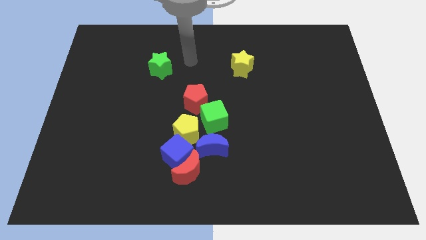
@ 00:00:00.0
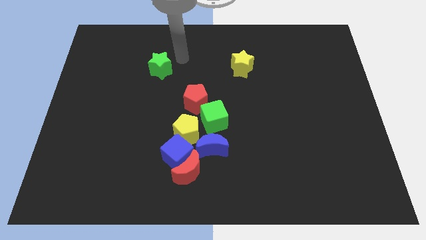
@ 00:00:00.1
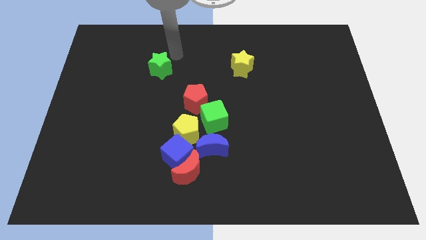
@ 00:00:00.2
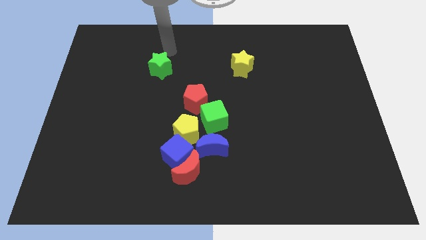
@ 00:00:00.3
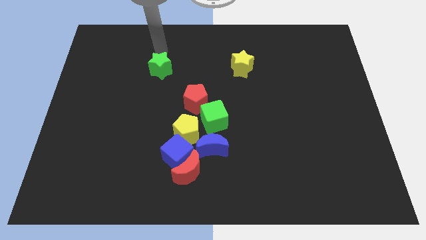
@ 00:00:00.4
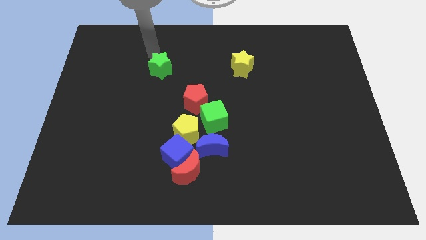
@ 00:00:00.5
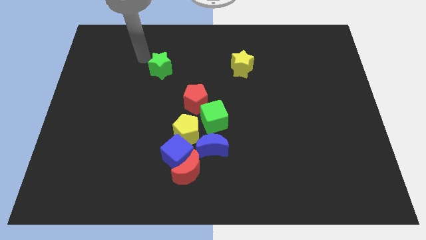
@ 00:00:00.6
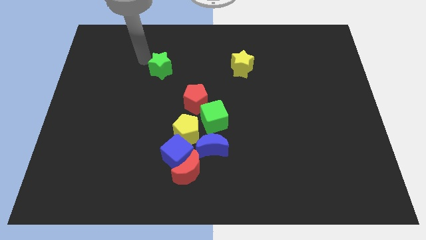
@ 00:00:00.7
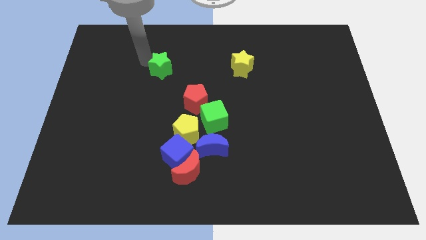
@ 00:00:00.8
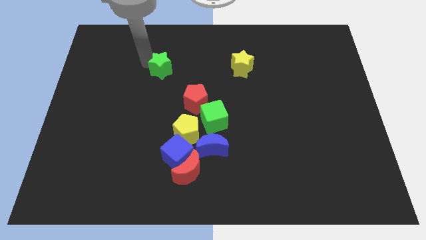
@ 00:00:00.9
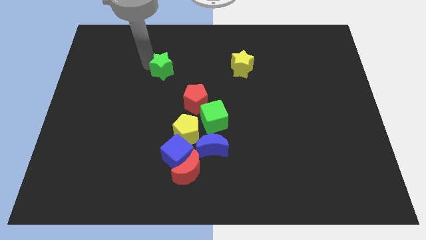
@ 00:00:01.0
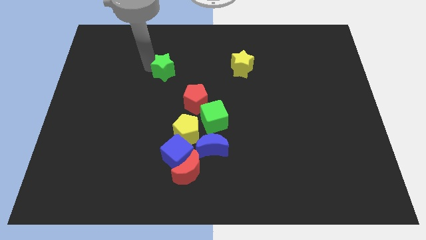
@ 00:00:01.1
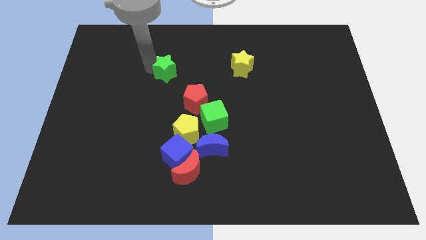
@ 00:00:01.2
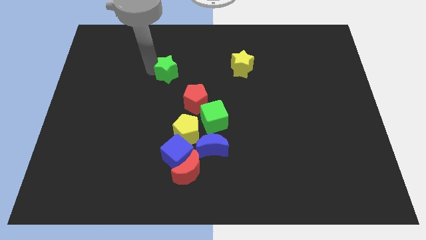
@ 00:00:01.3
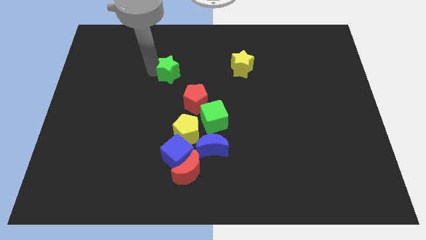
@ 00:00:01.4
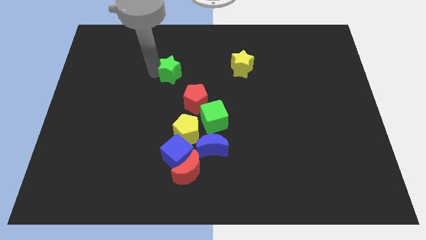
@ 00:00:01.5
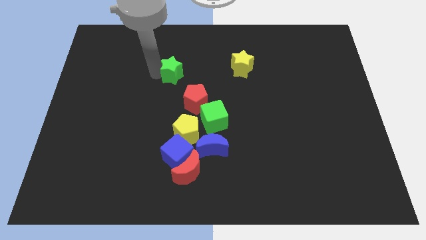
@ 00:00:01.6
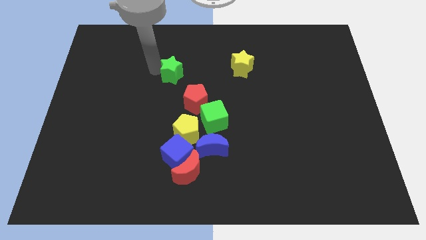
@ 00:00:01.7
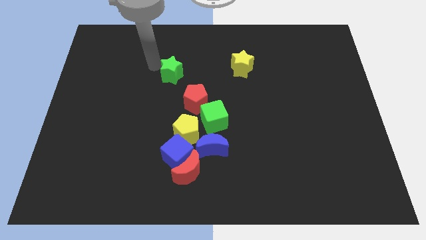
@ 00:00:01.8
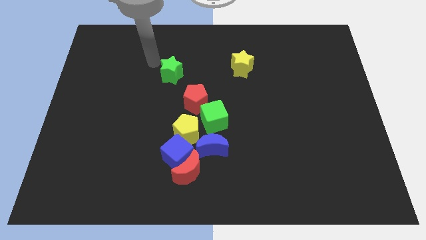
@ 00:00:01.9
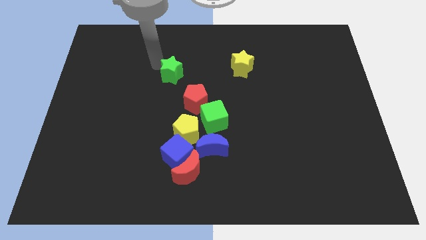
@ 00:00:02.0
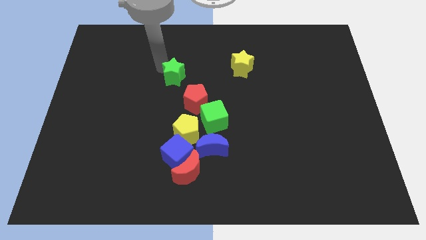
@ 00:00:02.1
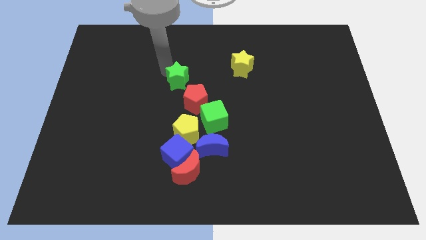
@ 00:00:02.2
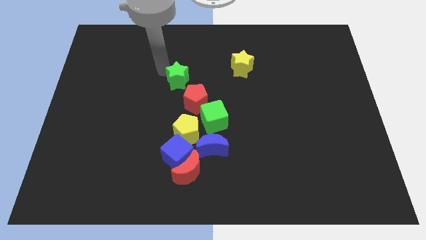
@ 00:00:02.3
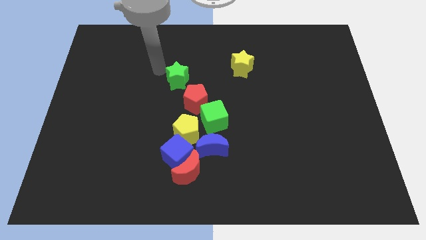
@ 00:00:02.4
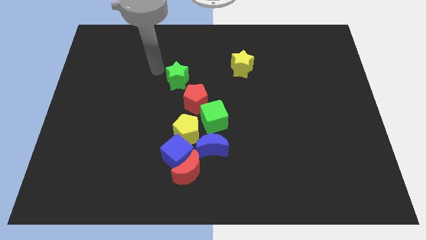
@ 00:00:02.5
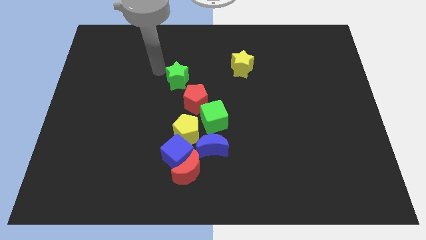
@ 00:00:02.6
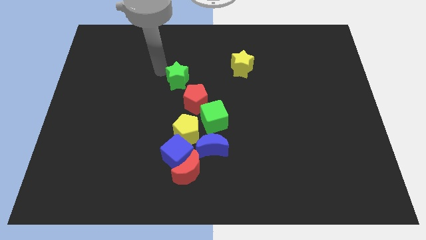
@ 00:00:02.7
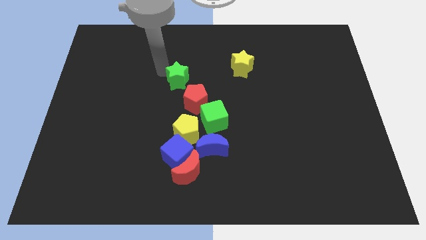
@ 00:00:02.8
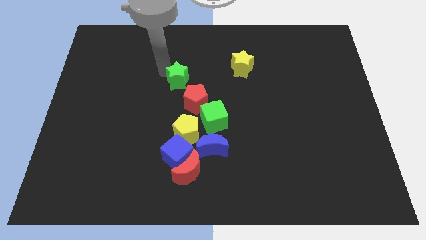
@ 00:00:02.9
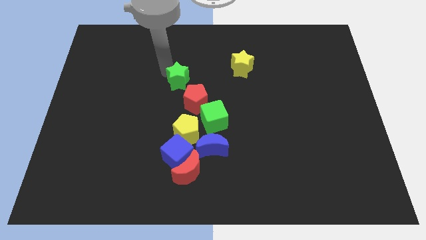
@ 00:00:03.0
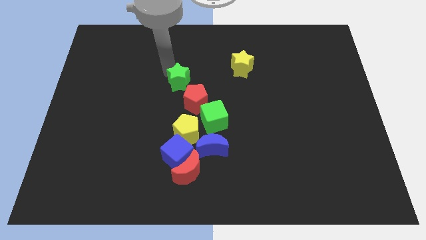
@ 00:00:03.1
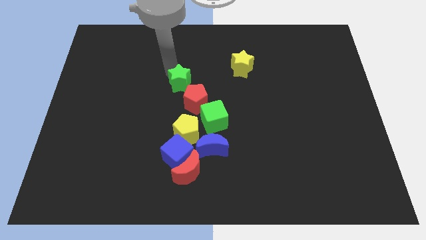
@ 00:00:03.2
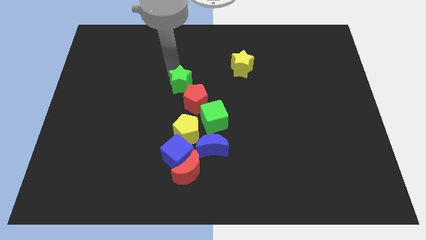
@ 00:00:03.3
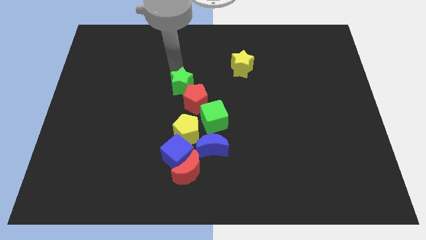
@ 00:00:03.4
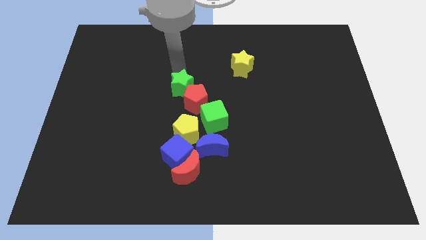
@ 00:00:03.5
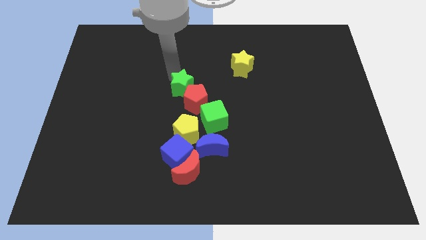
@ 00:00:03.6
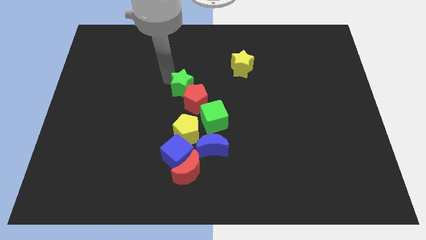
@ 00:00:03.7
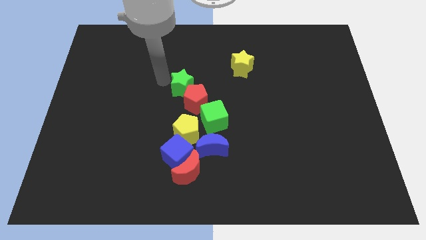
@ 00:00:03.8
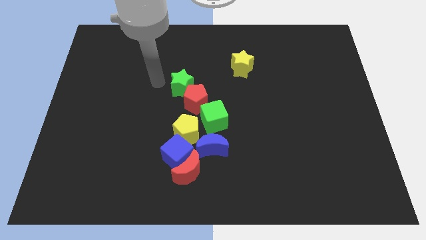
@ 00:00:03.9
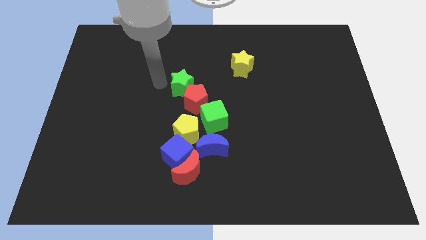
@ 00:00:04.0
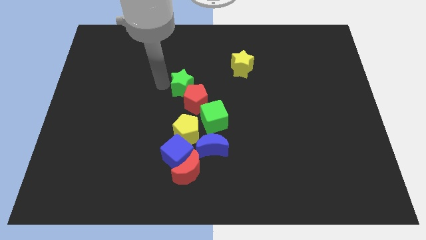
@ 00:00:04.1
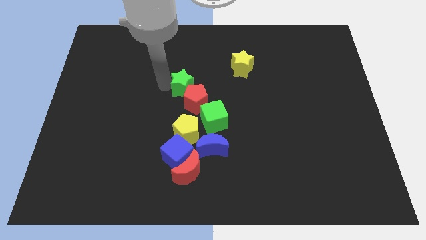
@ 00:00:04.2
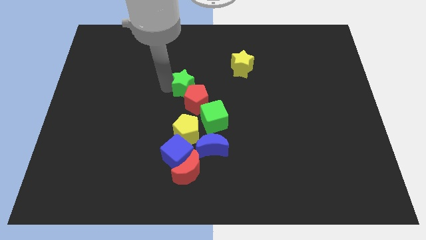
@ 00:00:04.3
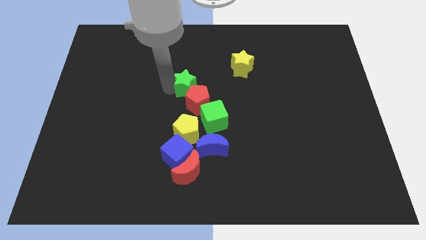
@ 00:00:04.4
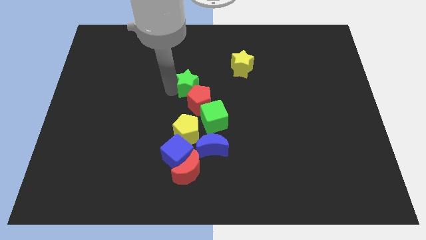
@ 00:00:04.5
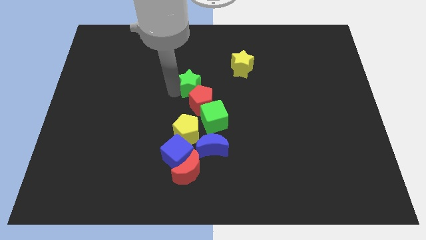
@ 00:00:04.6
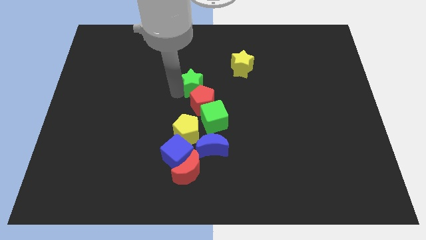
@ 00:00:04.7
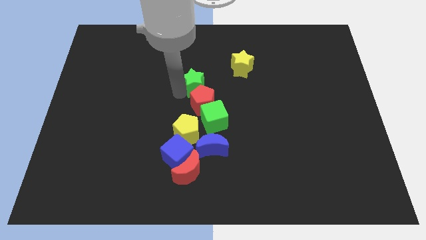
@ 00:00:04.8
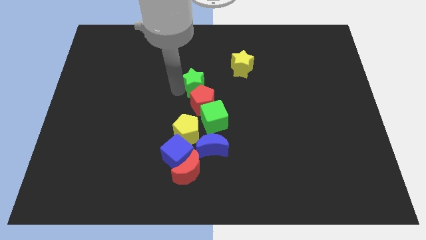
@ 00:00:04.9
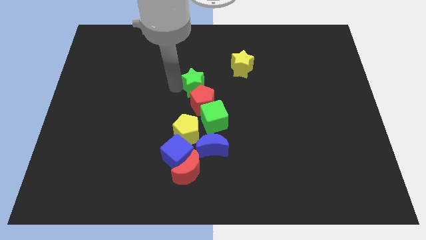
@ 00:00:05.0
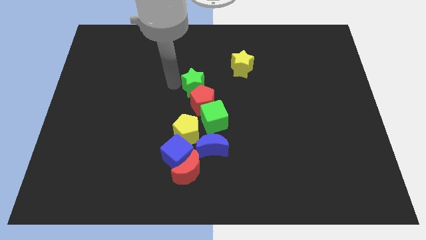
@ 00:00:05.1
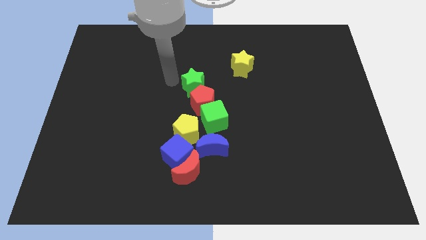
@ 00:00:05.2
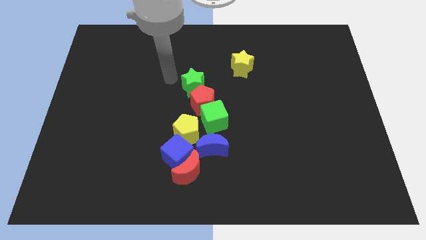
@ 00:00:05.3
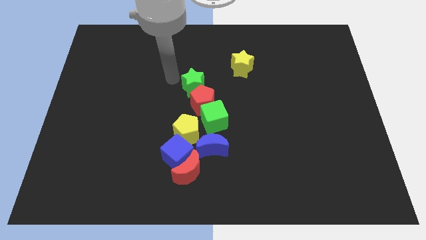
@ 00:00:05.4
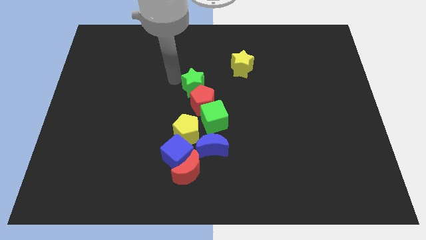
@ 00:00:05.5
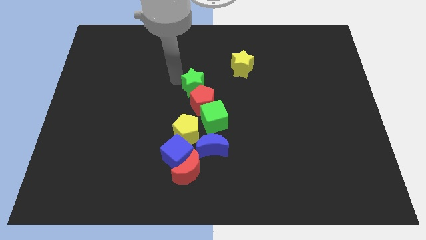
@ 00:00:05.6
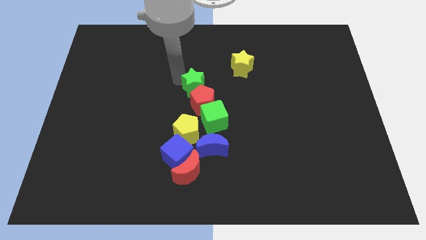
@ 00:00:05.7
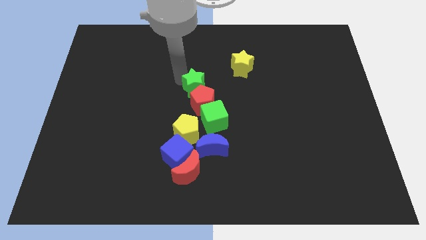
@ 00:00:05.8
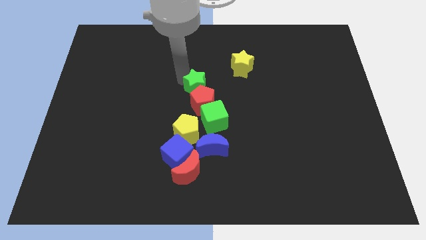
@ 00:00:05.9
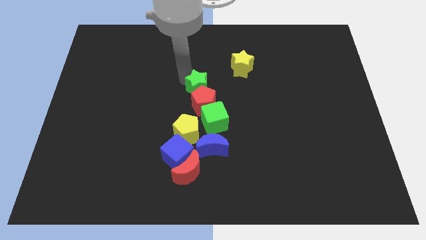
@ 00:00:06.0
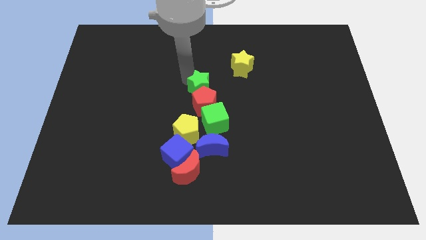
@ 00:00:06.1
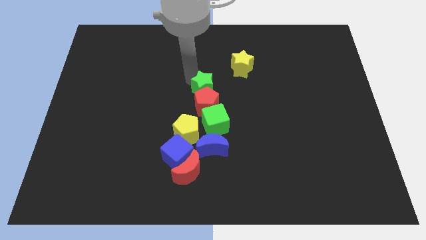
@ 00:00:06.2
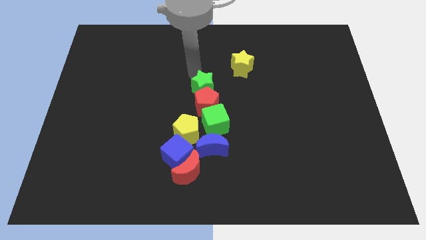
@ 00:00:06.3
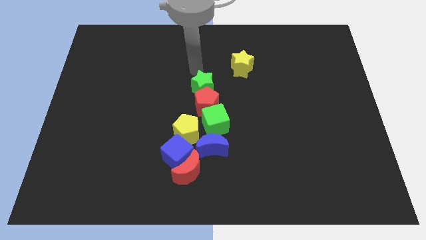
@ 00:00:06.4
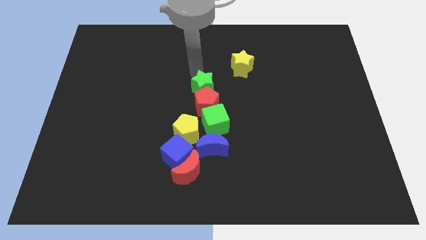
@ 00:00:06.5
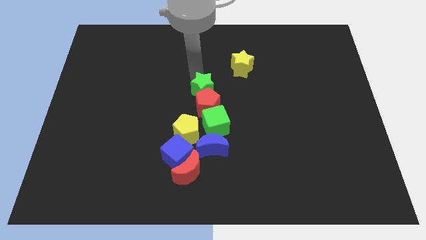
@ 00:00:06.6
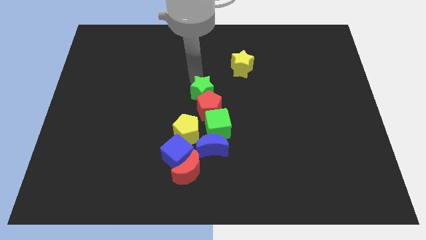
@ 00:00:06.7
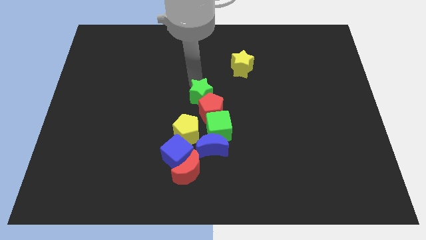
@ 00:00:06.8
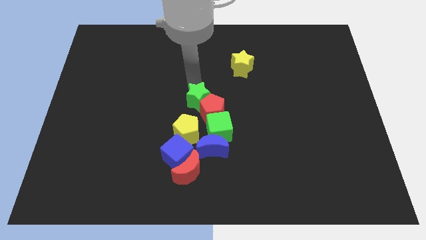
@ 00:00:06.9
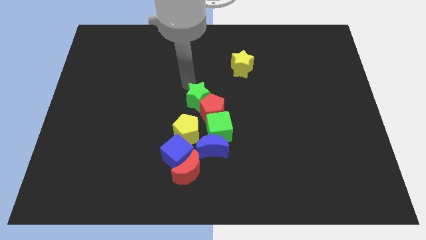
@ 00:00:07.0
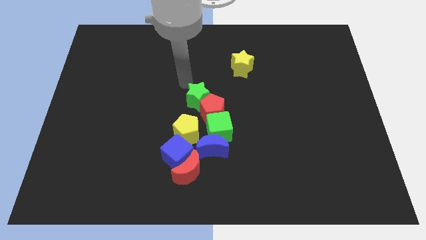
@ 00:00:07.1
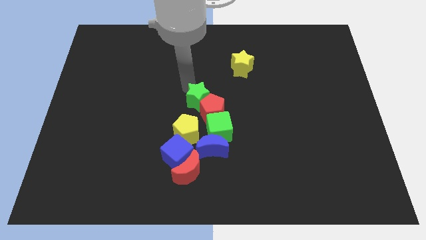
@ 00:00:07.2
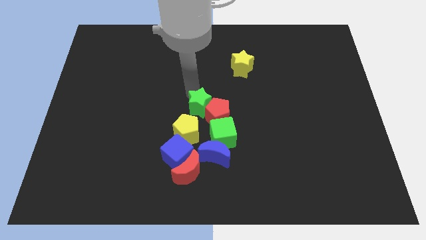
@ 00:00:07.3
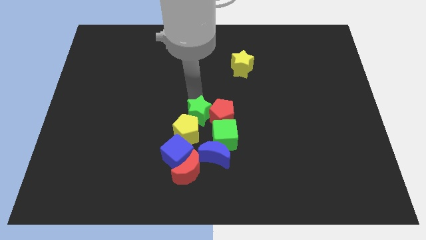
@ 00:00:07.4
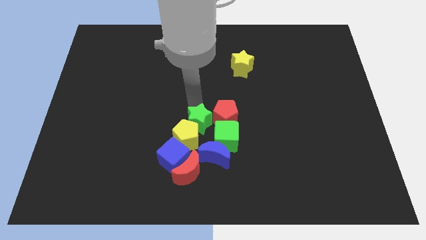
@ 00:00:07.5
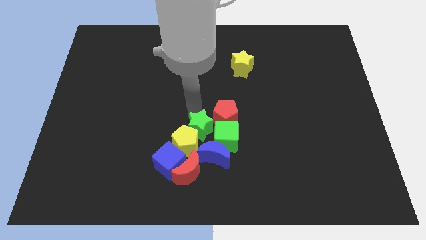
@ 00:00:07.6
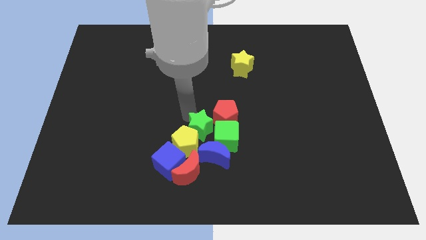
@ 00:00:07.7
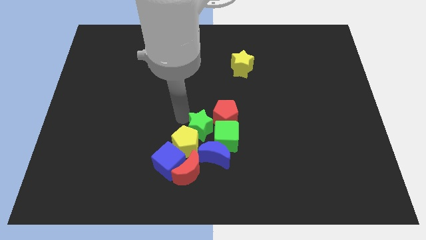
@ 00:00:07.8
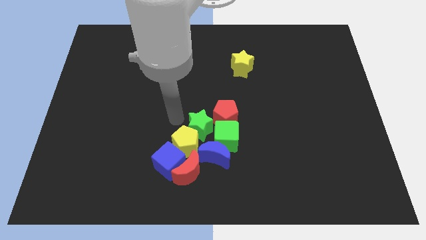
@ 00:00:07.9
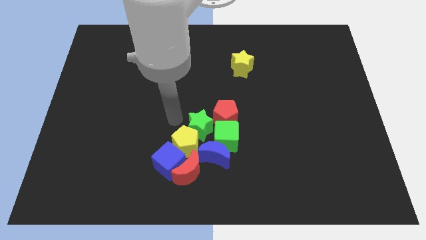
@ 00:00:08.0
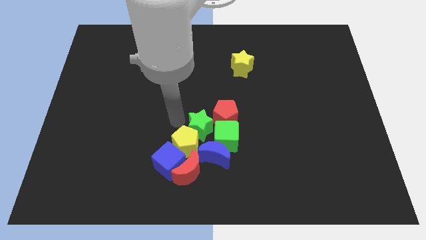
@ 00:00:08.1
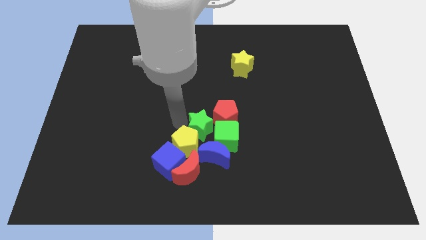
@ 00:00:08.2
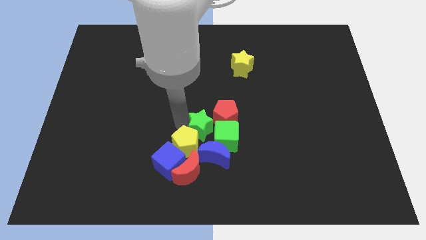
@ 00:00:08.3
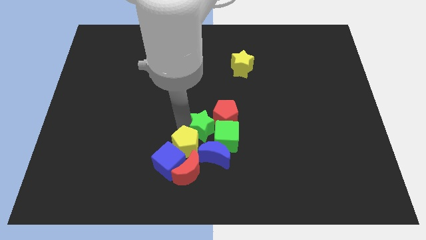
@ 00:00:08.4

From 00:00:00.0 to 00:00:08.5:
push the green star towards the green cube
